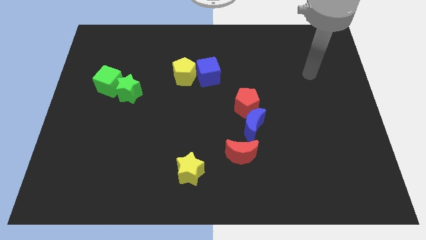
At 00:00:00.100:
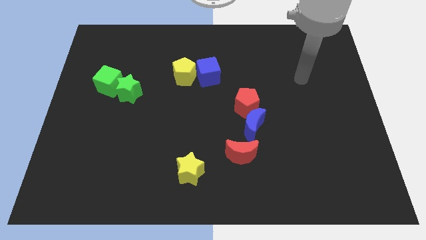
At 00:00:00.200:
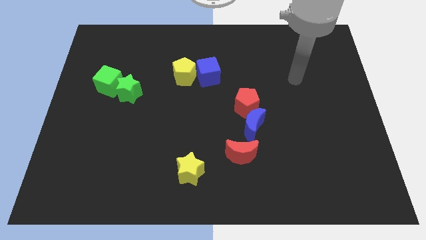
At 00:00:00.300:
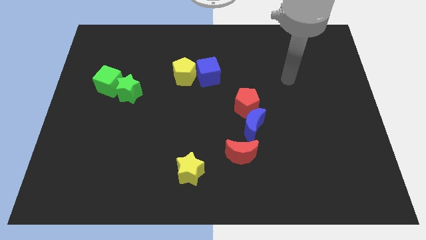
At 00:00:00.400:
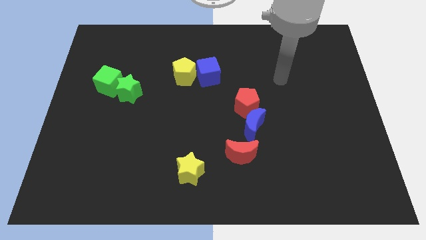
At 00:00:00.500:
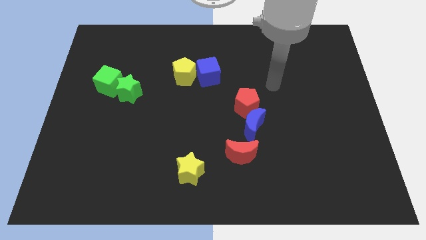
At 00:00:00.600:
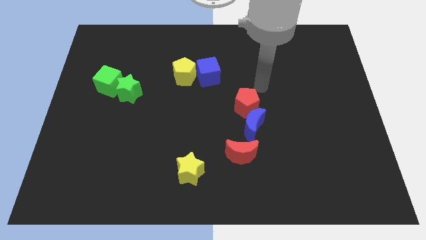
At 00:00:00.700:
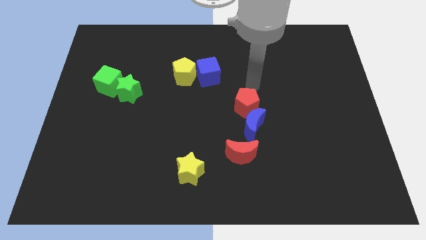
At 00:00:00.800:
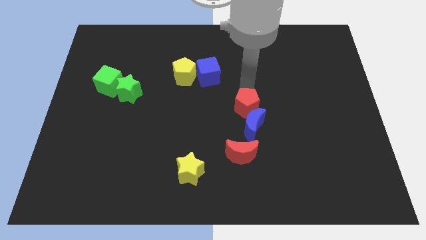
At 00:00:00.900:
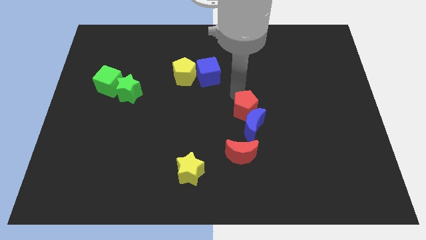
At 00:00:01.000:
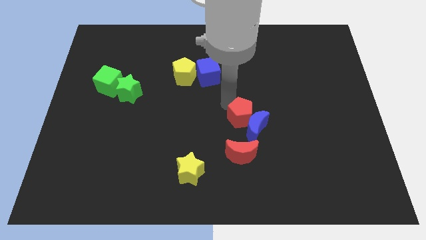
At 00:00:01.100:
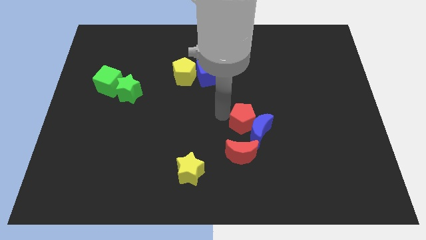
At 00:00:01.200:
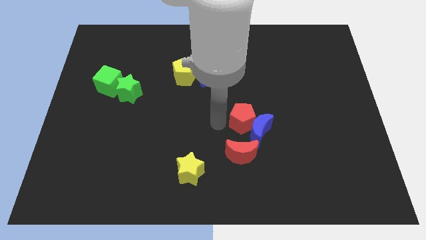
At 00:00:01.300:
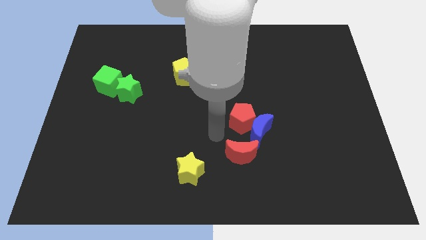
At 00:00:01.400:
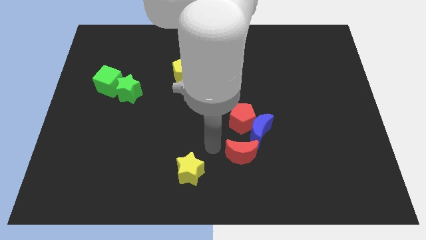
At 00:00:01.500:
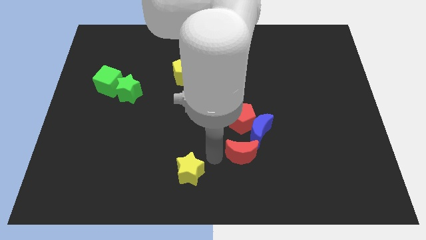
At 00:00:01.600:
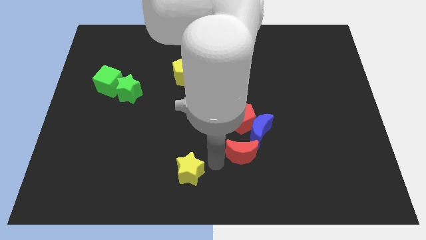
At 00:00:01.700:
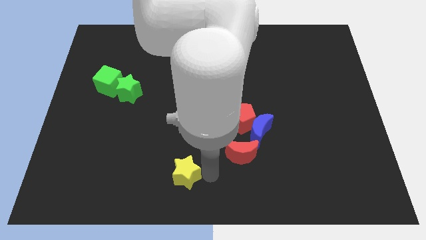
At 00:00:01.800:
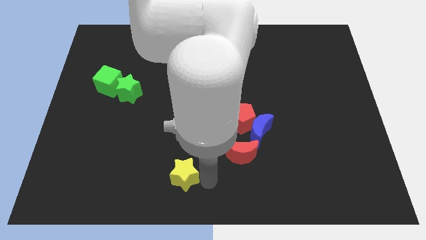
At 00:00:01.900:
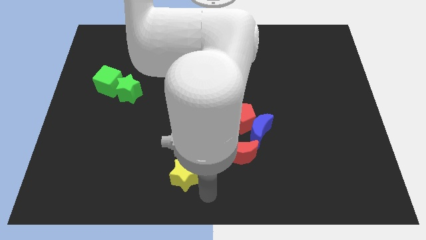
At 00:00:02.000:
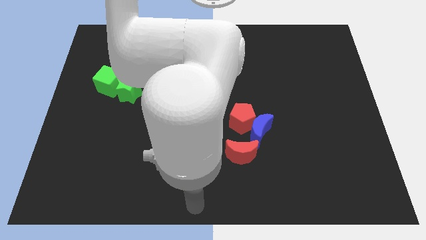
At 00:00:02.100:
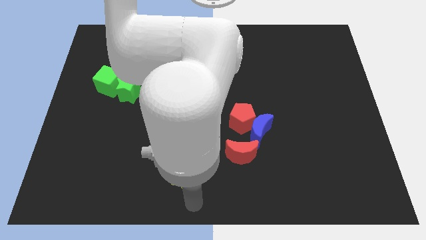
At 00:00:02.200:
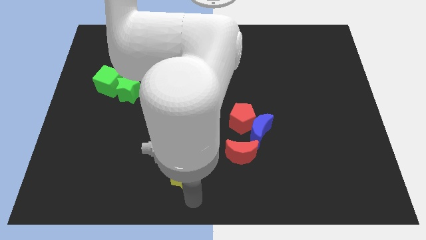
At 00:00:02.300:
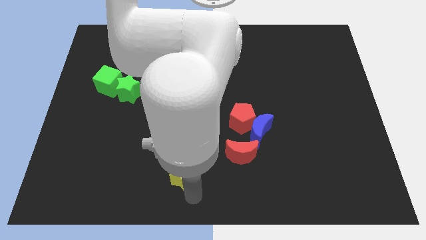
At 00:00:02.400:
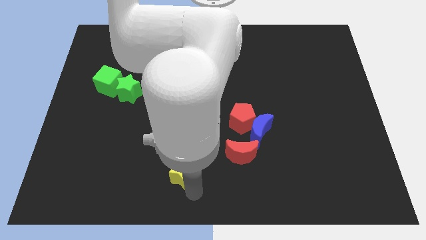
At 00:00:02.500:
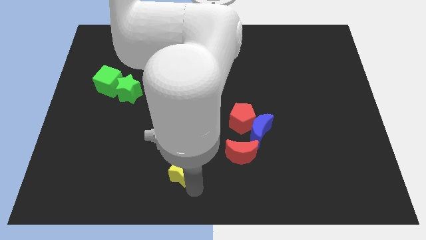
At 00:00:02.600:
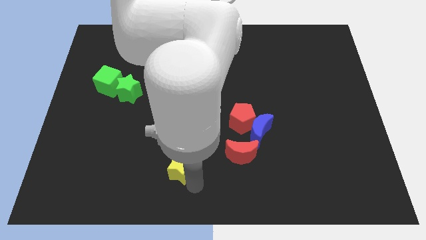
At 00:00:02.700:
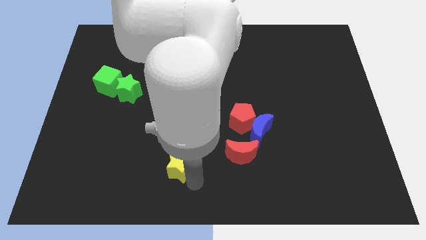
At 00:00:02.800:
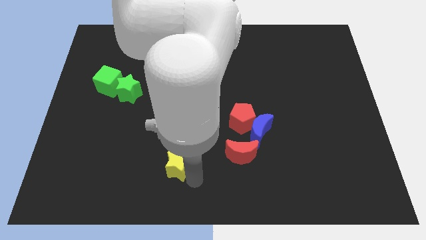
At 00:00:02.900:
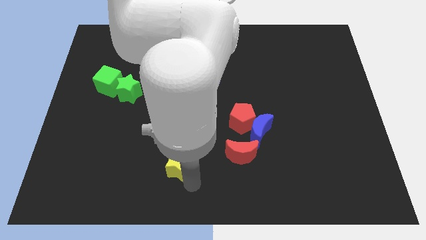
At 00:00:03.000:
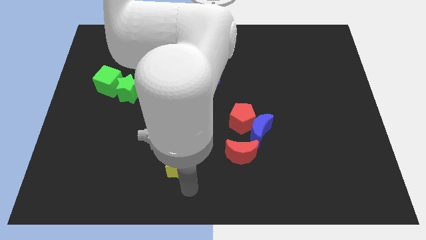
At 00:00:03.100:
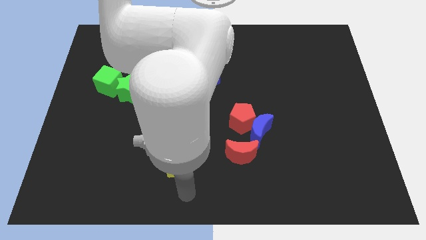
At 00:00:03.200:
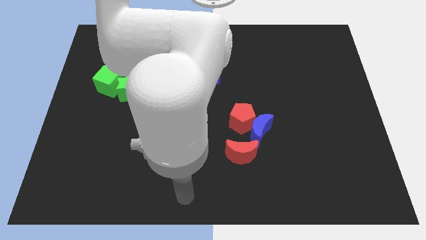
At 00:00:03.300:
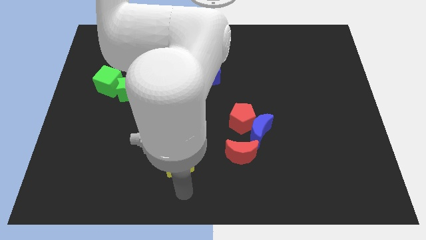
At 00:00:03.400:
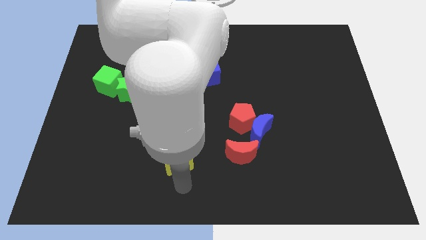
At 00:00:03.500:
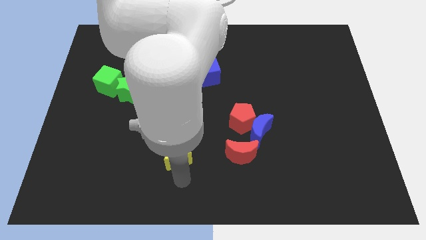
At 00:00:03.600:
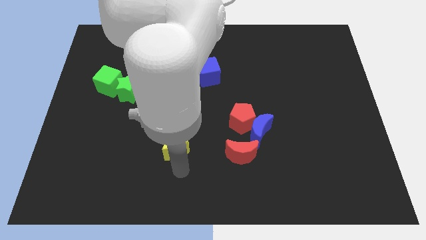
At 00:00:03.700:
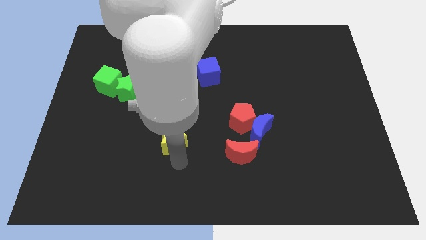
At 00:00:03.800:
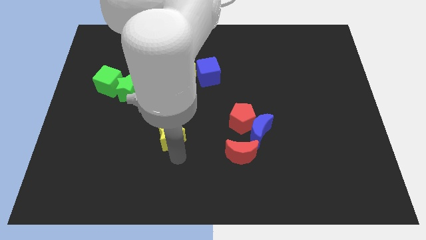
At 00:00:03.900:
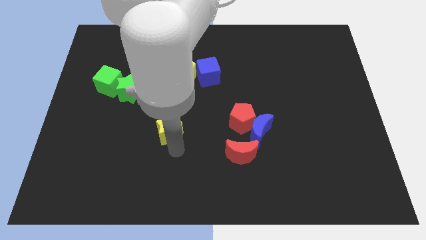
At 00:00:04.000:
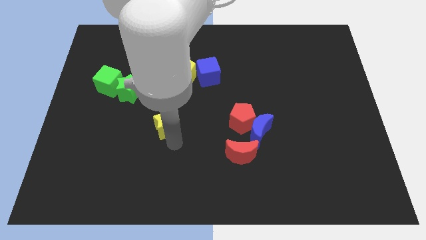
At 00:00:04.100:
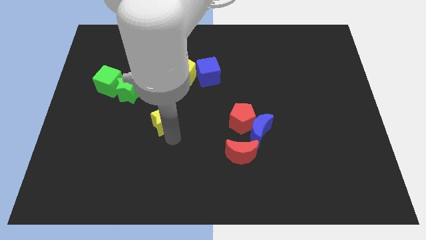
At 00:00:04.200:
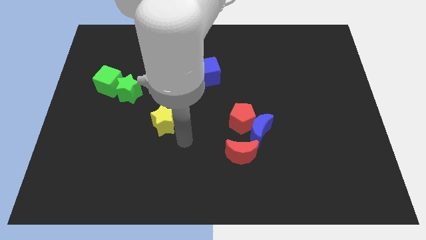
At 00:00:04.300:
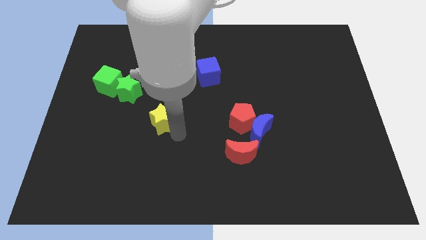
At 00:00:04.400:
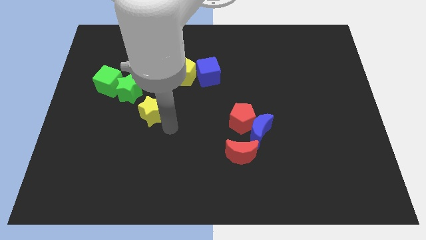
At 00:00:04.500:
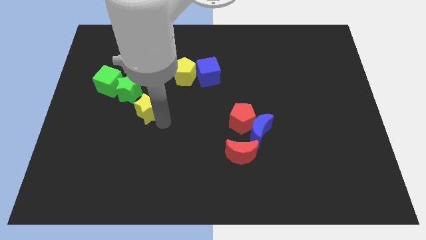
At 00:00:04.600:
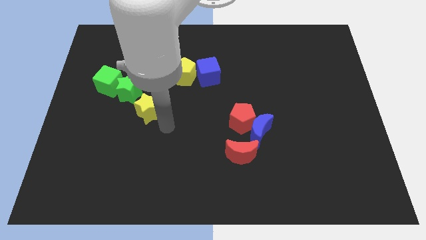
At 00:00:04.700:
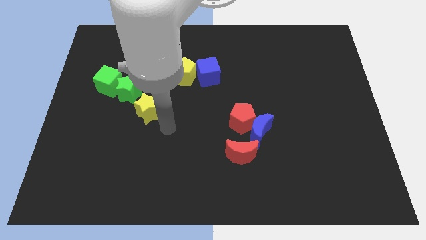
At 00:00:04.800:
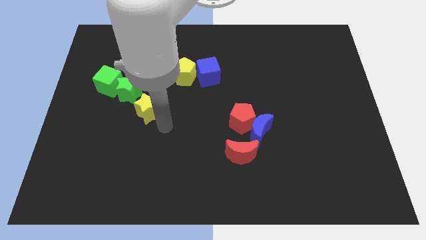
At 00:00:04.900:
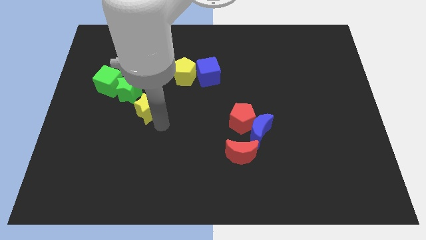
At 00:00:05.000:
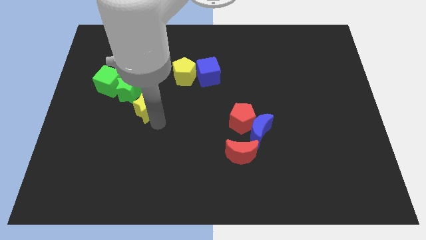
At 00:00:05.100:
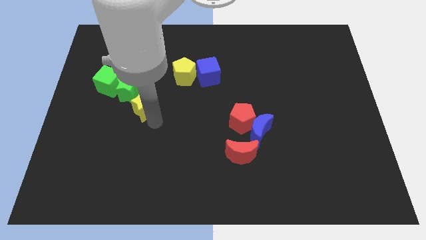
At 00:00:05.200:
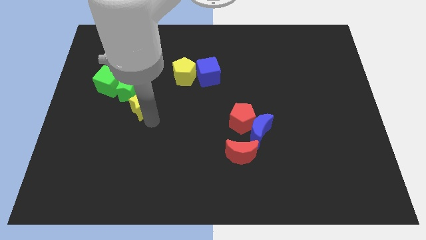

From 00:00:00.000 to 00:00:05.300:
slide the yellow star next to the green star
